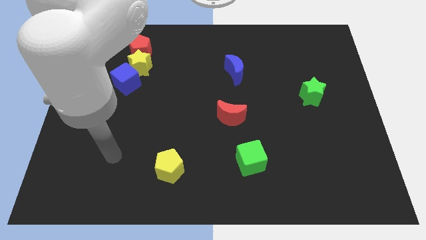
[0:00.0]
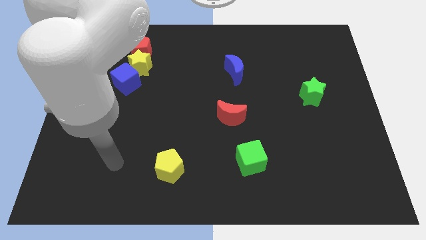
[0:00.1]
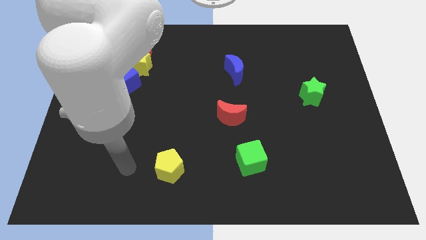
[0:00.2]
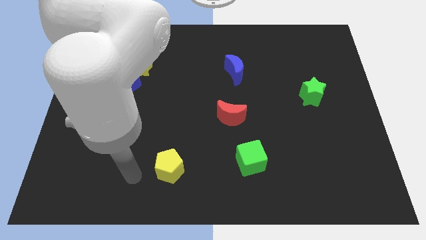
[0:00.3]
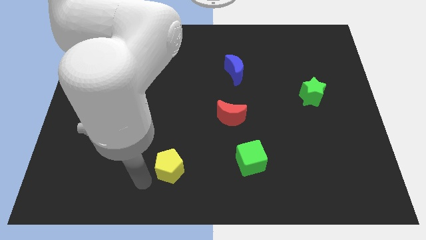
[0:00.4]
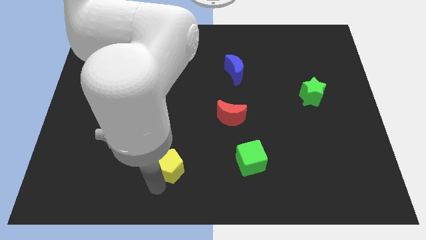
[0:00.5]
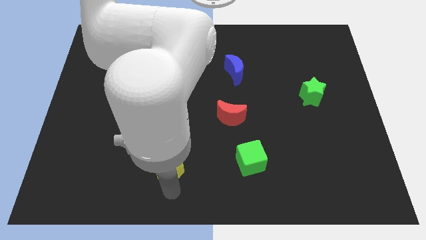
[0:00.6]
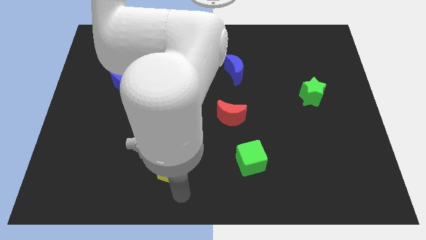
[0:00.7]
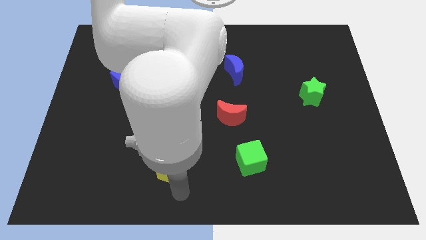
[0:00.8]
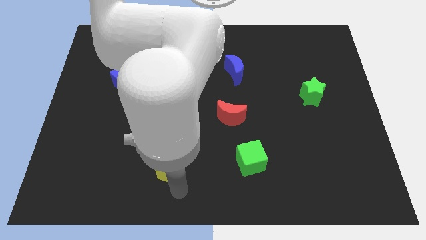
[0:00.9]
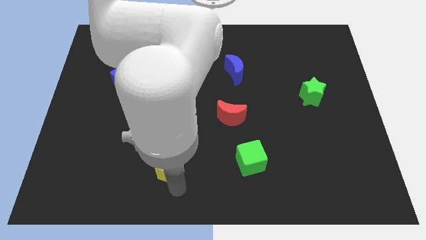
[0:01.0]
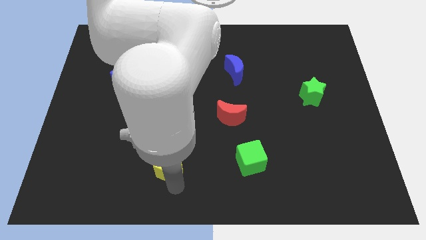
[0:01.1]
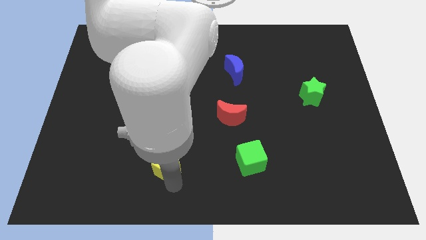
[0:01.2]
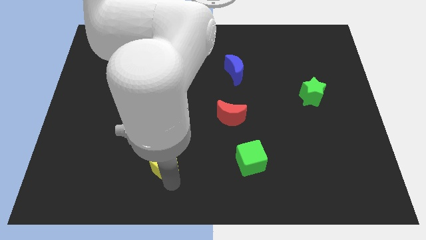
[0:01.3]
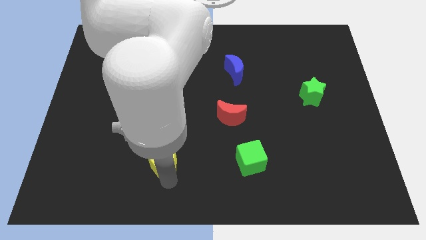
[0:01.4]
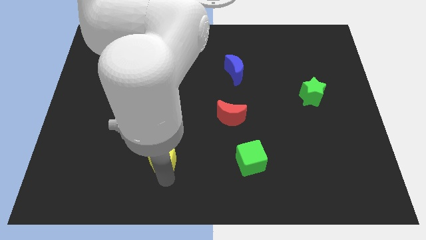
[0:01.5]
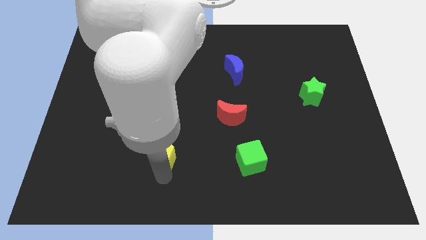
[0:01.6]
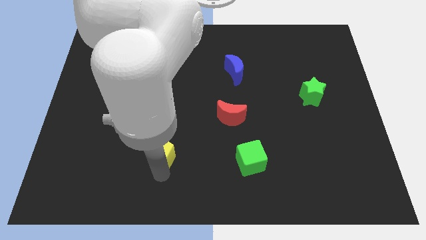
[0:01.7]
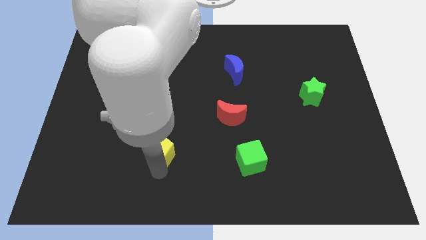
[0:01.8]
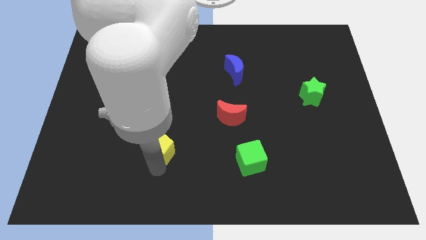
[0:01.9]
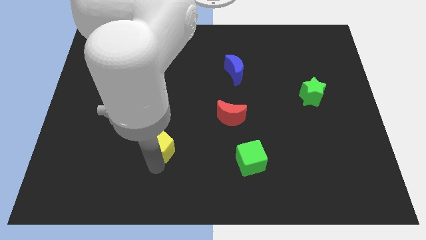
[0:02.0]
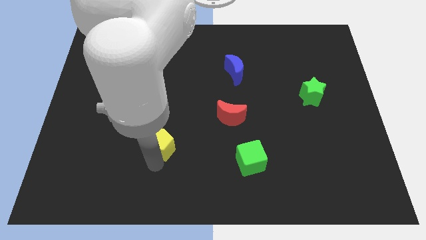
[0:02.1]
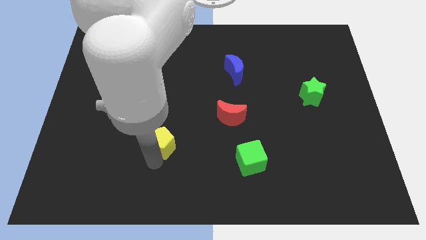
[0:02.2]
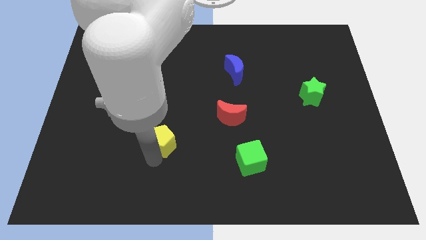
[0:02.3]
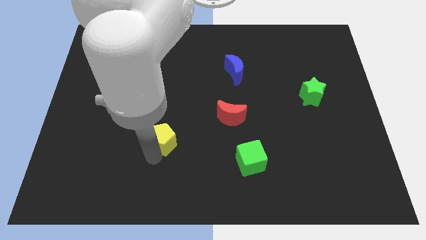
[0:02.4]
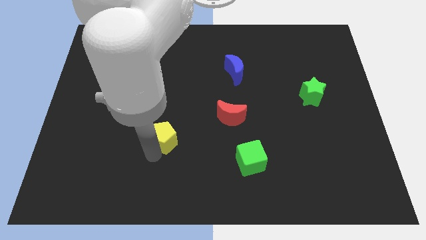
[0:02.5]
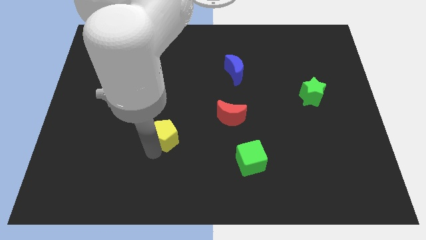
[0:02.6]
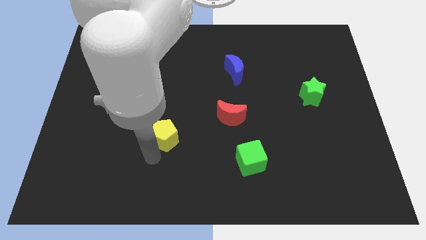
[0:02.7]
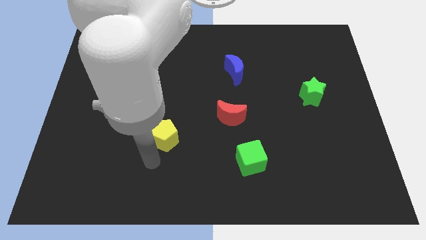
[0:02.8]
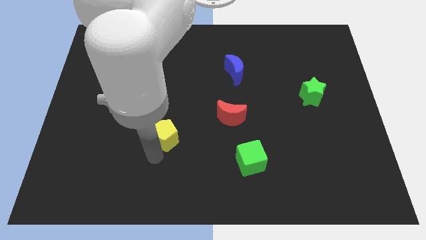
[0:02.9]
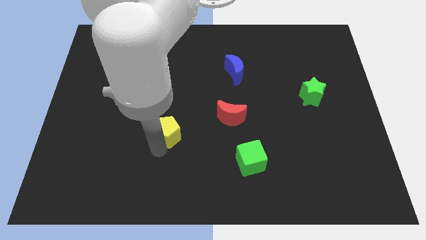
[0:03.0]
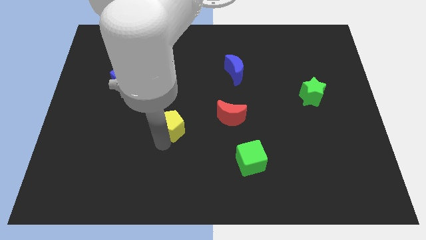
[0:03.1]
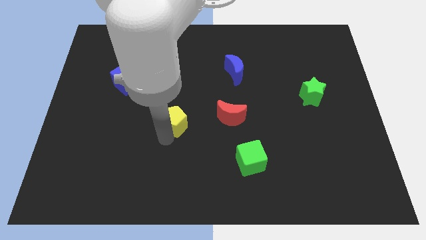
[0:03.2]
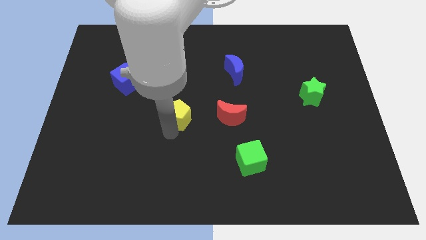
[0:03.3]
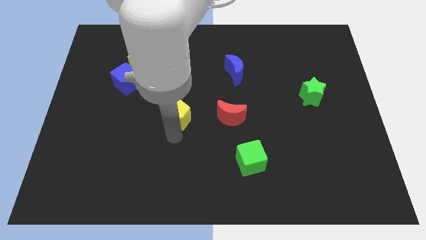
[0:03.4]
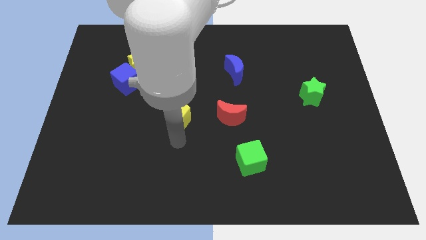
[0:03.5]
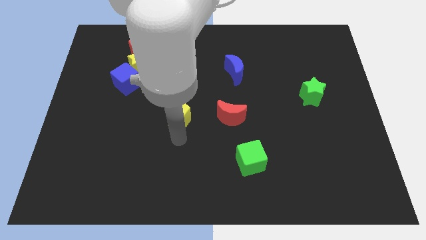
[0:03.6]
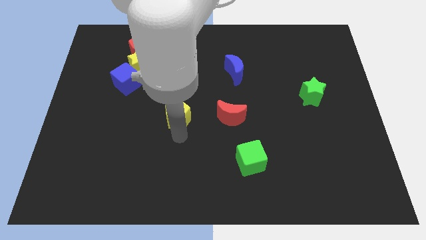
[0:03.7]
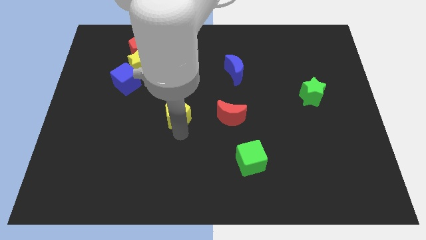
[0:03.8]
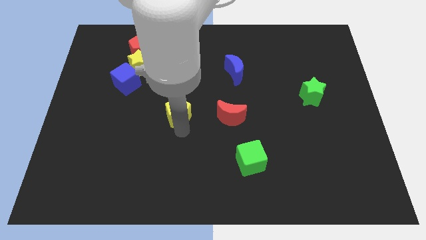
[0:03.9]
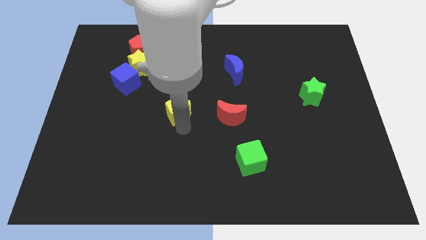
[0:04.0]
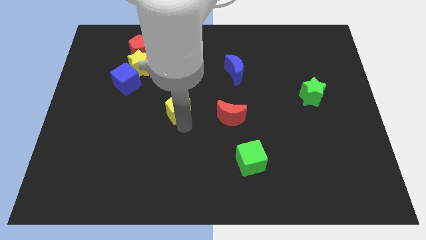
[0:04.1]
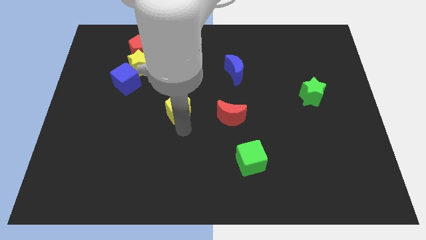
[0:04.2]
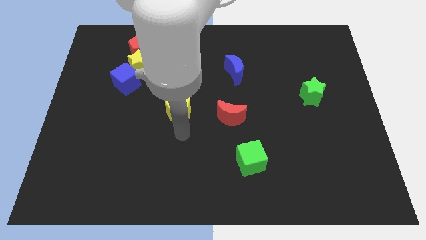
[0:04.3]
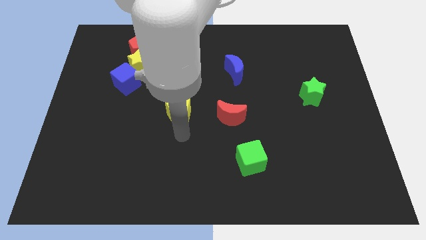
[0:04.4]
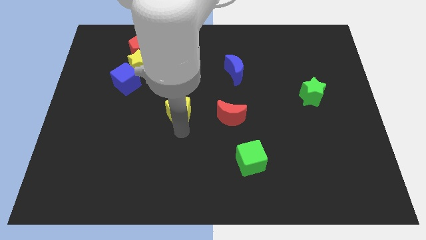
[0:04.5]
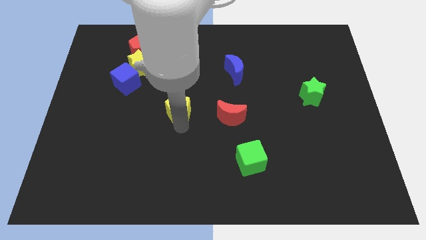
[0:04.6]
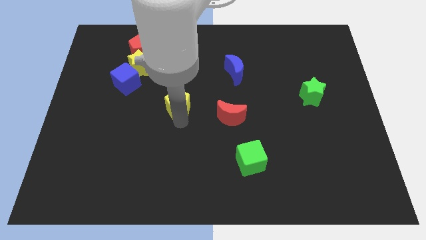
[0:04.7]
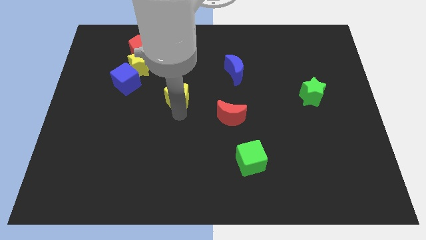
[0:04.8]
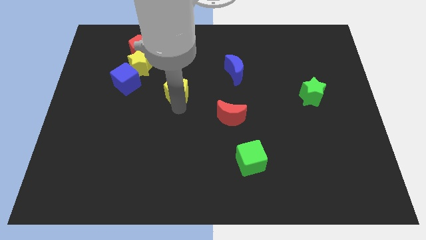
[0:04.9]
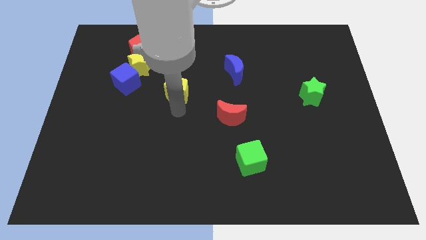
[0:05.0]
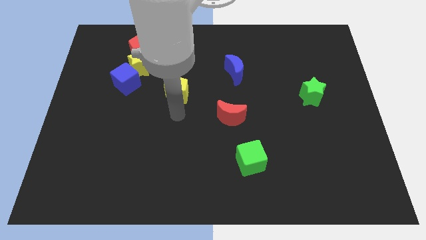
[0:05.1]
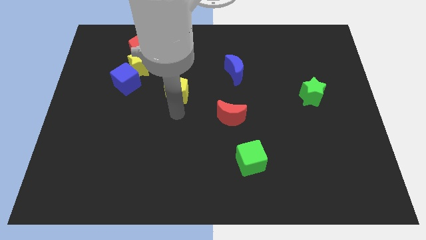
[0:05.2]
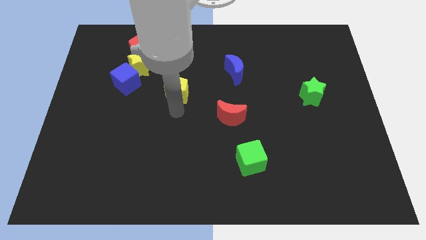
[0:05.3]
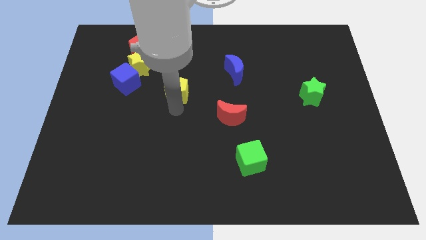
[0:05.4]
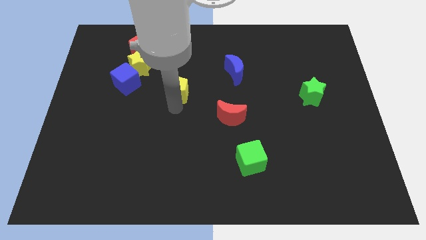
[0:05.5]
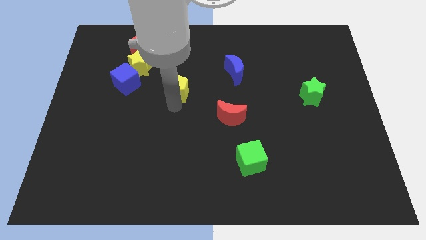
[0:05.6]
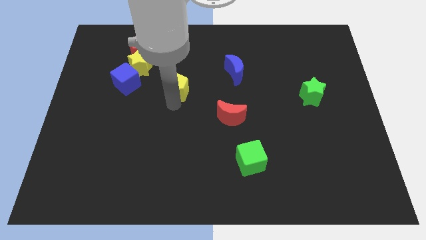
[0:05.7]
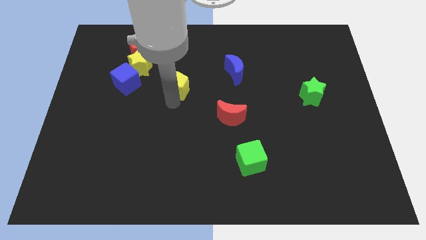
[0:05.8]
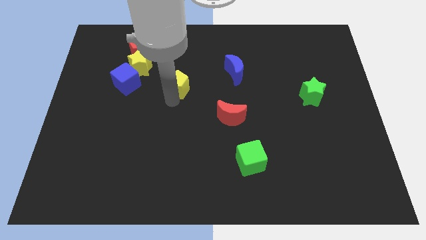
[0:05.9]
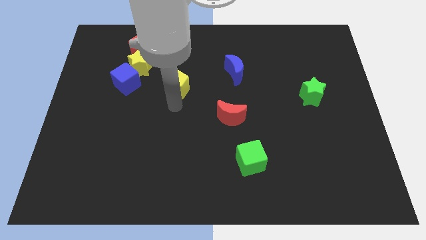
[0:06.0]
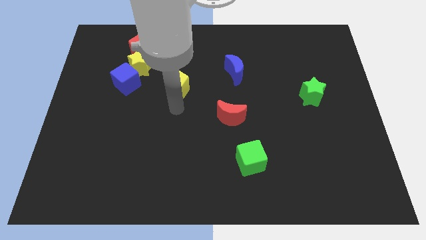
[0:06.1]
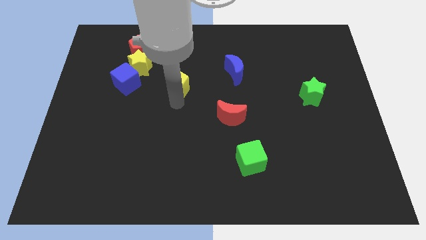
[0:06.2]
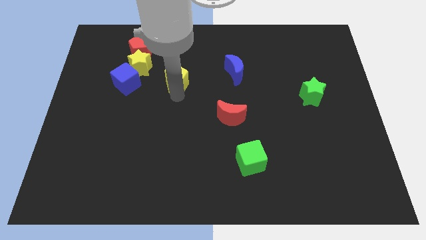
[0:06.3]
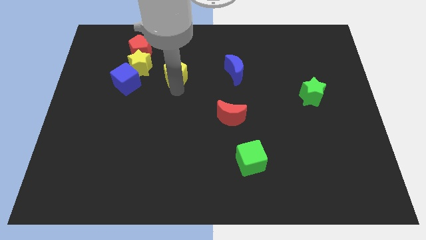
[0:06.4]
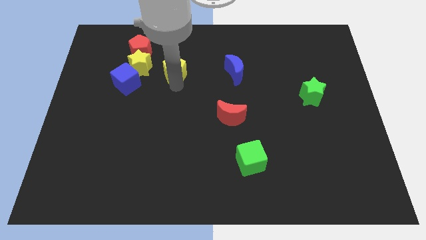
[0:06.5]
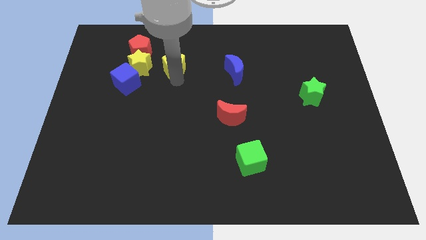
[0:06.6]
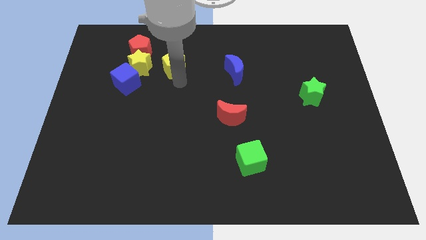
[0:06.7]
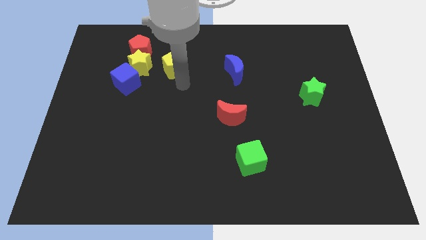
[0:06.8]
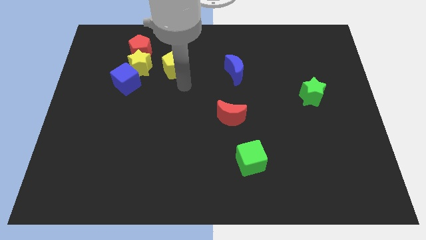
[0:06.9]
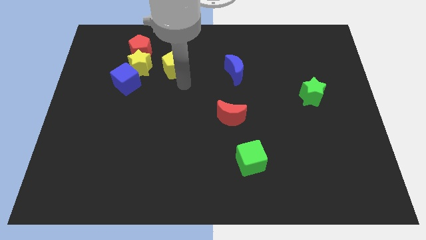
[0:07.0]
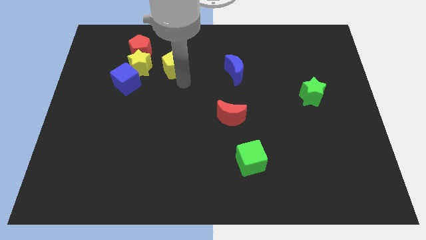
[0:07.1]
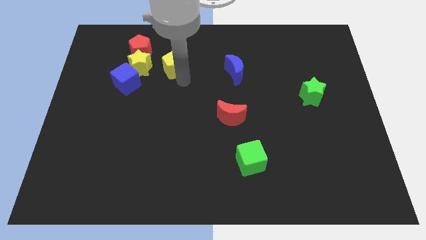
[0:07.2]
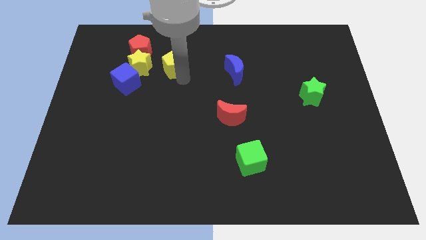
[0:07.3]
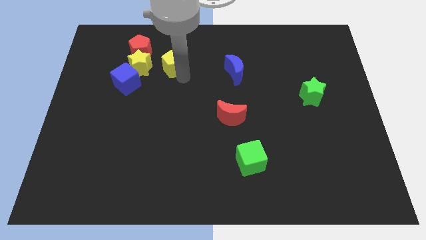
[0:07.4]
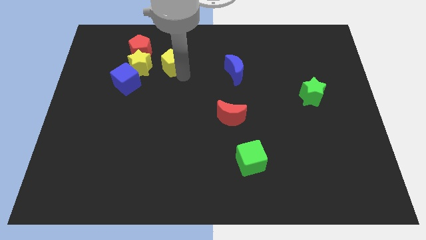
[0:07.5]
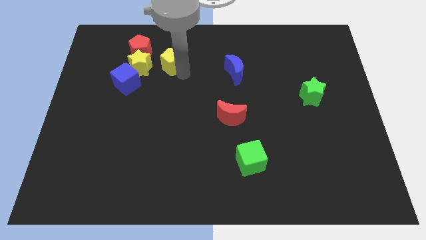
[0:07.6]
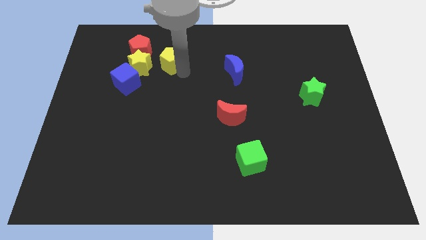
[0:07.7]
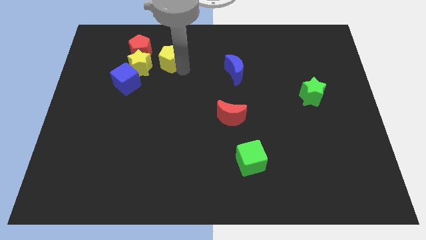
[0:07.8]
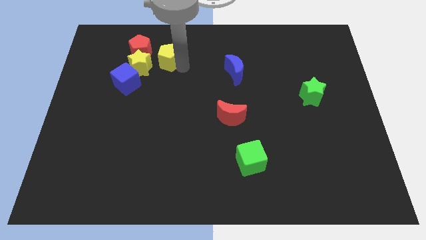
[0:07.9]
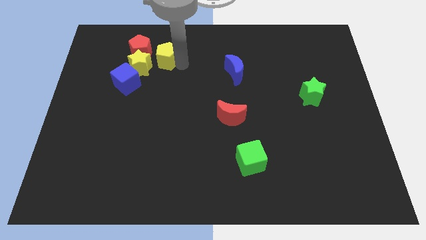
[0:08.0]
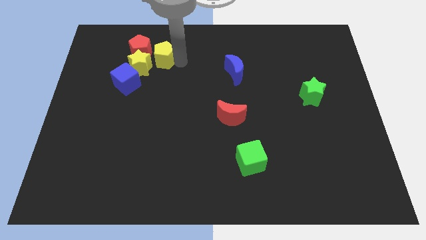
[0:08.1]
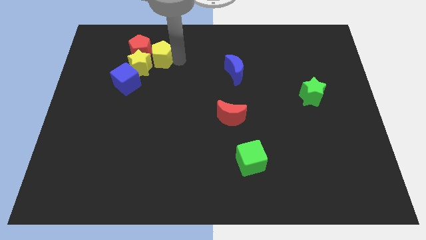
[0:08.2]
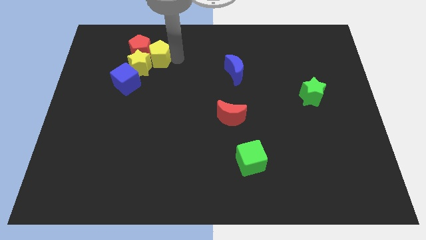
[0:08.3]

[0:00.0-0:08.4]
move the yellow pentagon to the red pentagon
